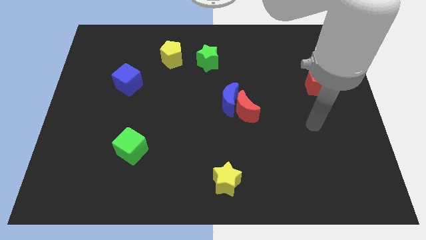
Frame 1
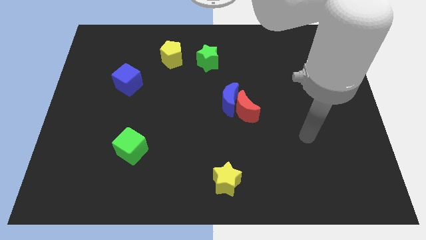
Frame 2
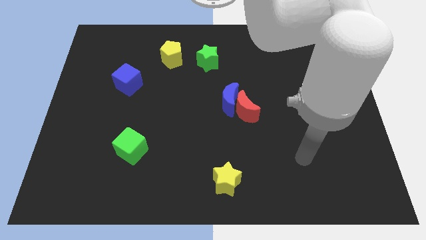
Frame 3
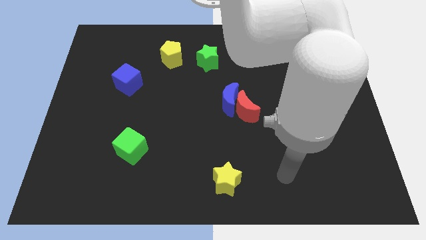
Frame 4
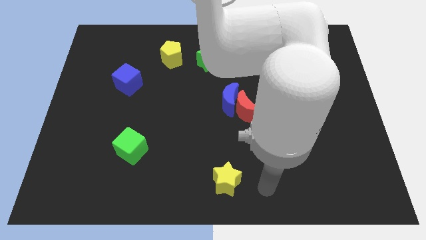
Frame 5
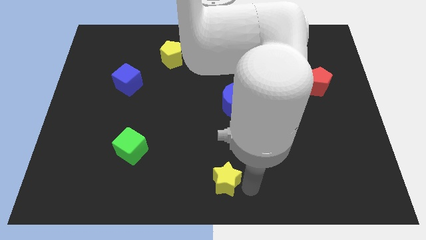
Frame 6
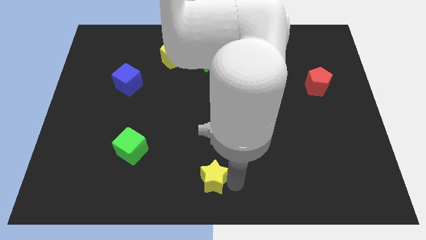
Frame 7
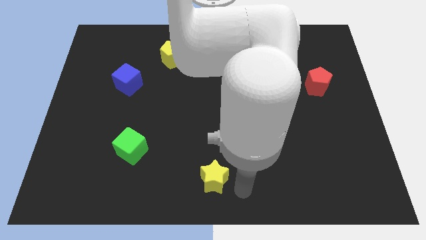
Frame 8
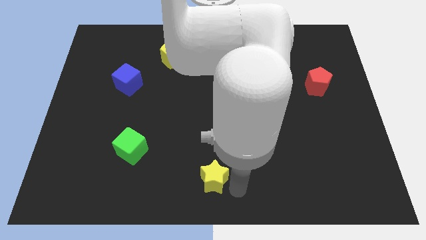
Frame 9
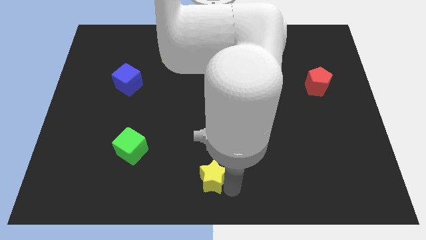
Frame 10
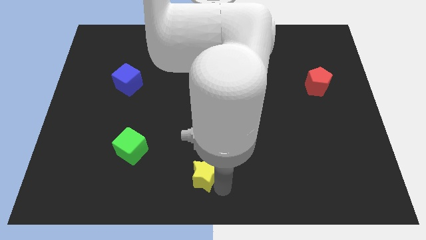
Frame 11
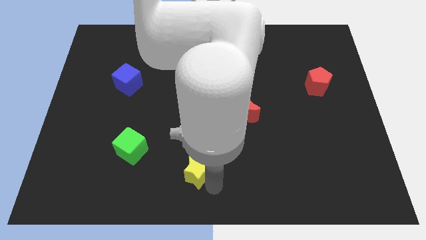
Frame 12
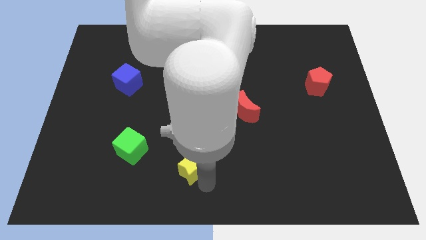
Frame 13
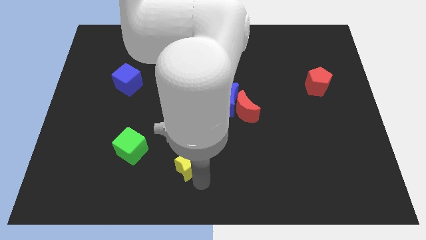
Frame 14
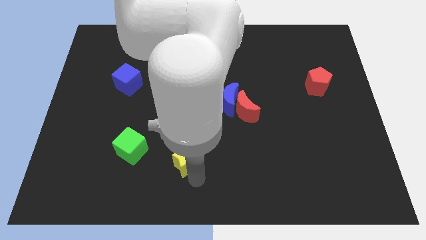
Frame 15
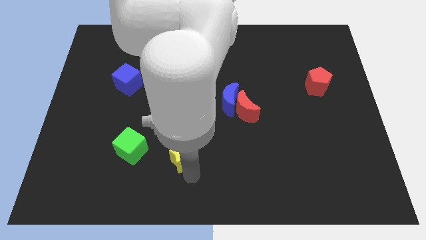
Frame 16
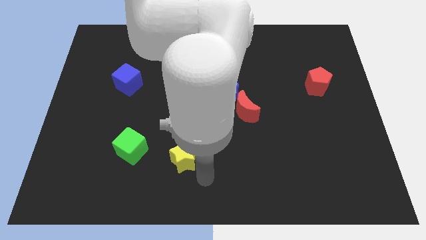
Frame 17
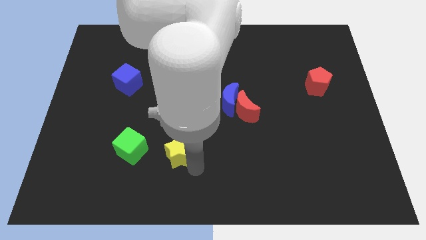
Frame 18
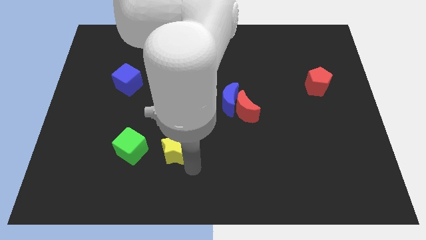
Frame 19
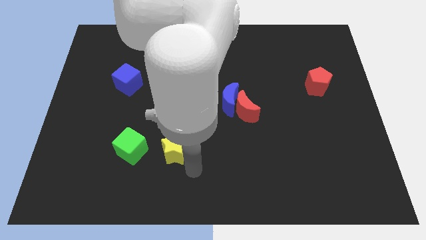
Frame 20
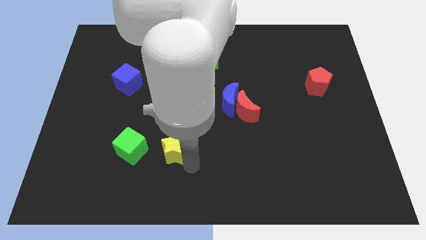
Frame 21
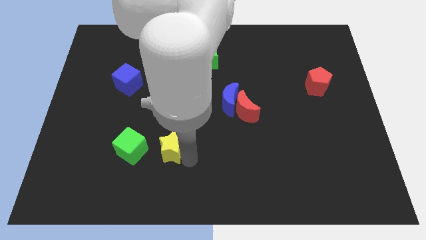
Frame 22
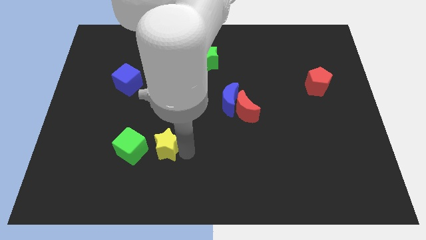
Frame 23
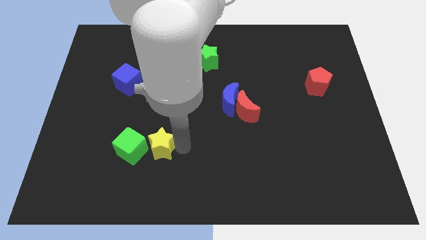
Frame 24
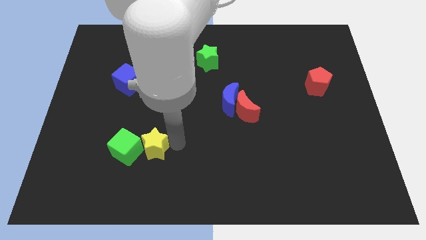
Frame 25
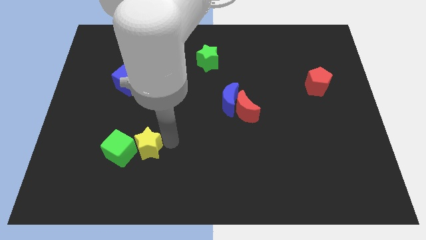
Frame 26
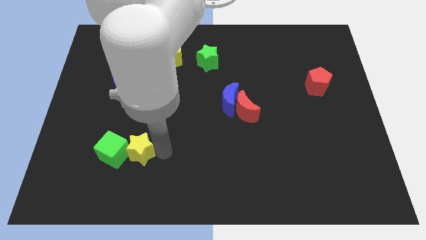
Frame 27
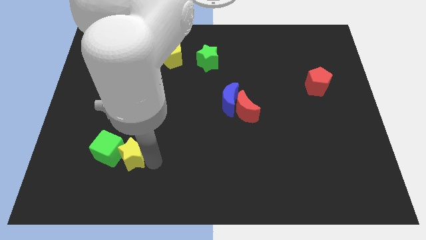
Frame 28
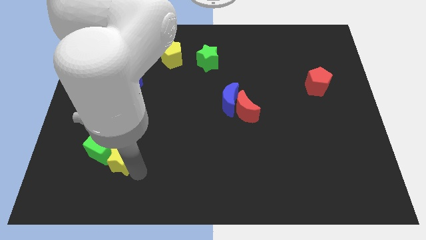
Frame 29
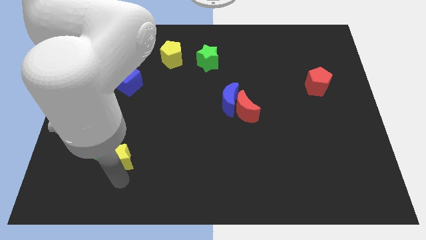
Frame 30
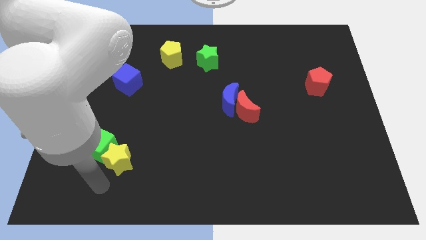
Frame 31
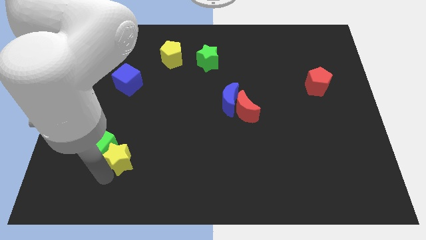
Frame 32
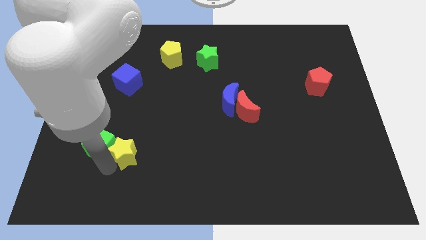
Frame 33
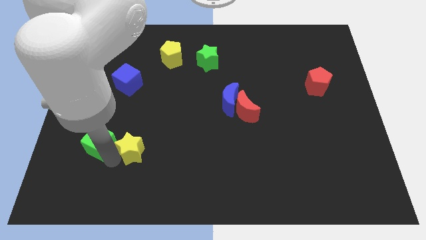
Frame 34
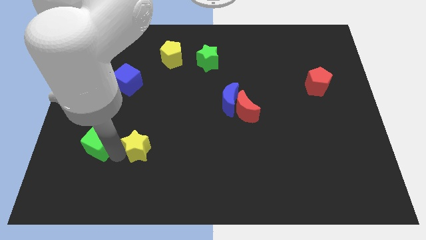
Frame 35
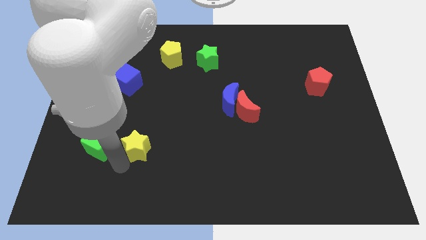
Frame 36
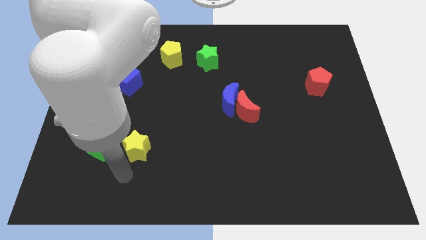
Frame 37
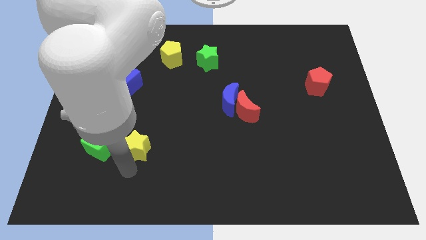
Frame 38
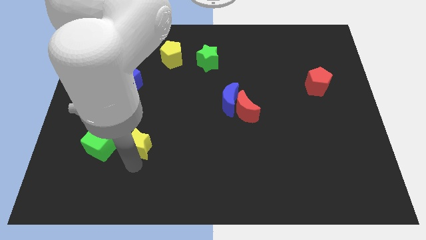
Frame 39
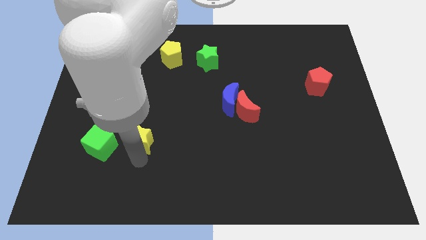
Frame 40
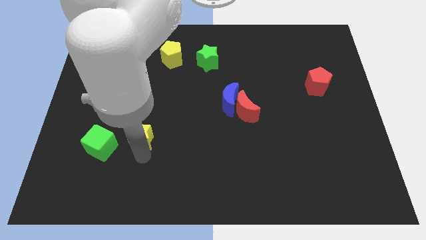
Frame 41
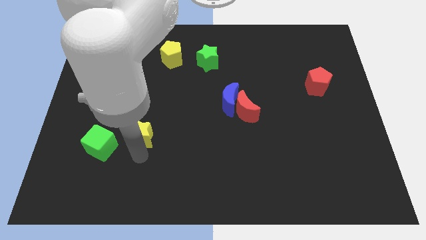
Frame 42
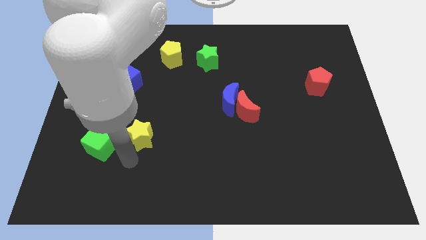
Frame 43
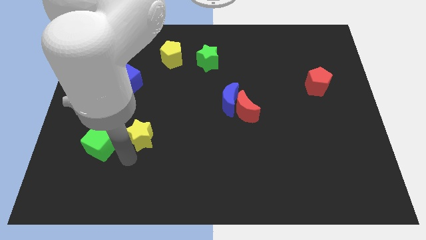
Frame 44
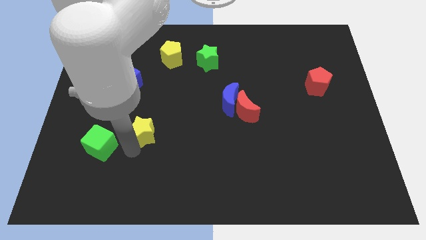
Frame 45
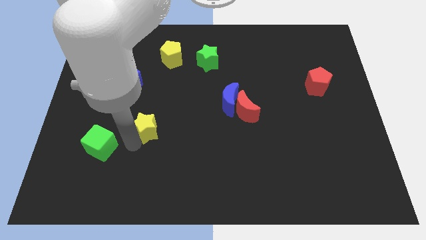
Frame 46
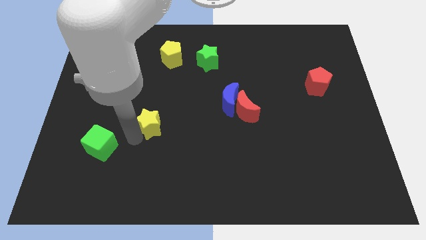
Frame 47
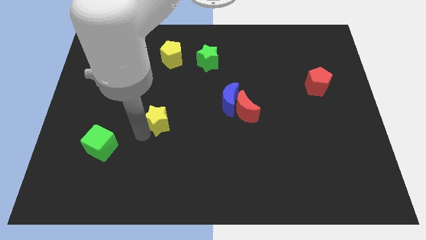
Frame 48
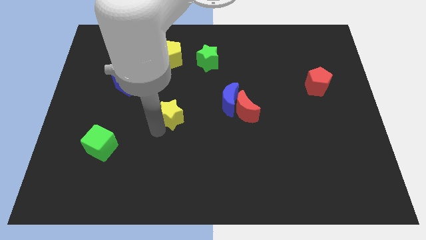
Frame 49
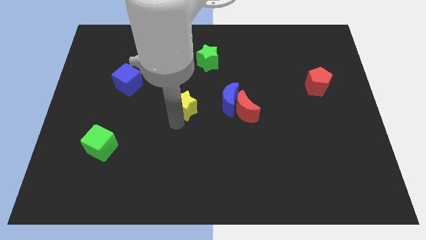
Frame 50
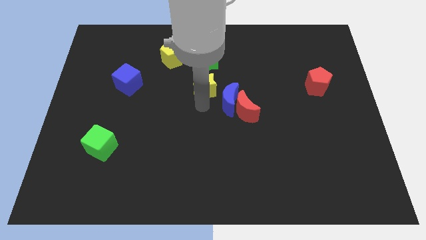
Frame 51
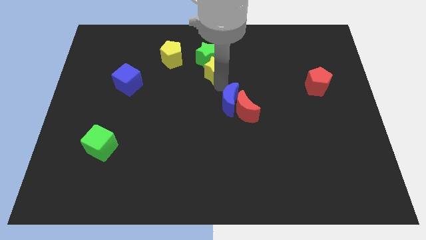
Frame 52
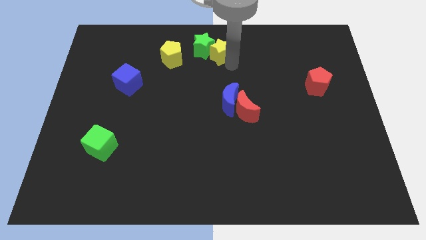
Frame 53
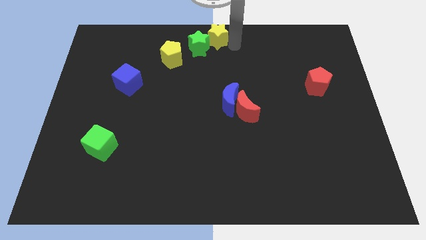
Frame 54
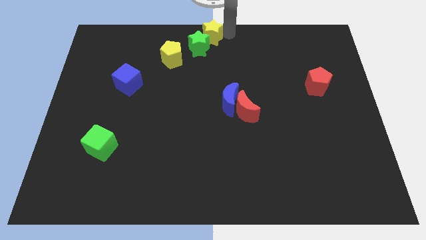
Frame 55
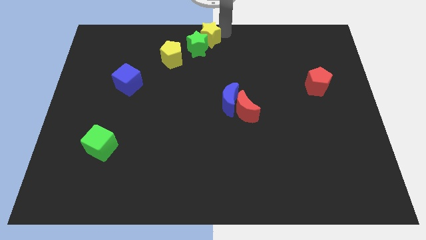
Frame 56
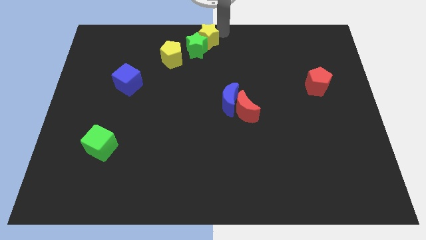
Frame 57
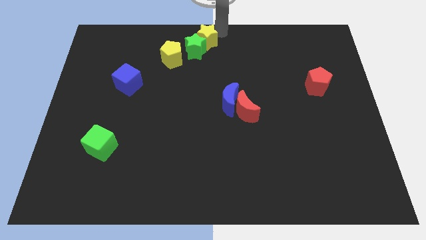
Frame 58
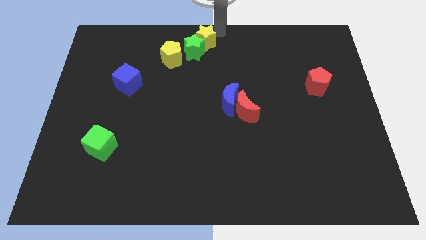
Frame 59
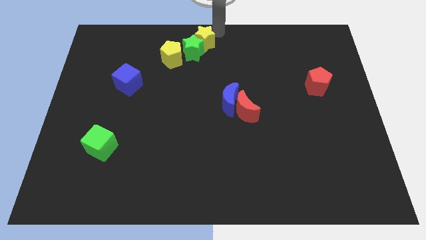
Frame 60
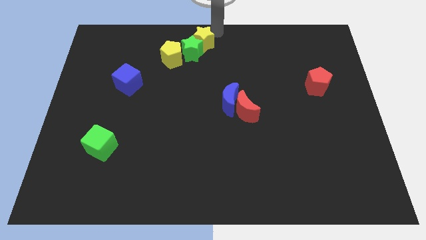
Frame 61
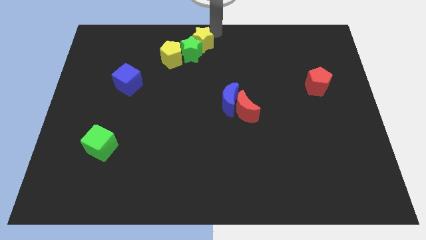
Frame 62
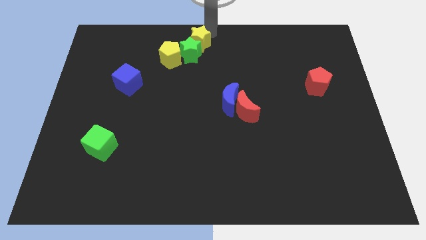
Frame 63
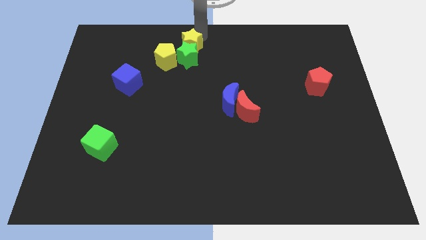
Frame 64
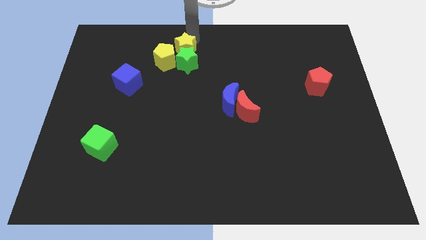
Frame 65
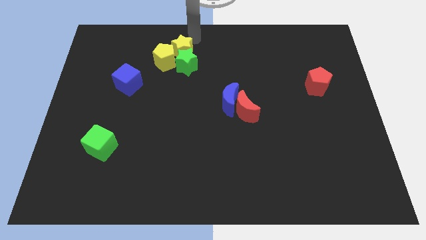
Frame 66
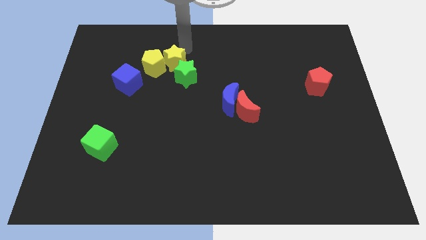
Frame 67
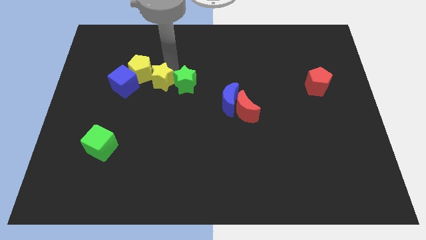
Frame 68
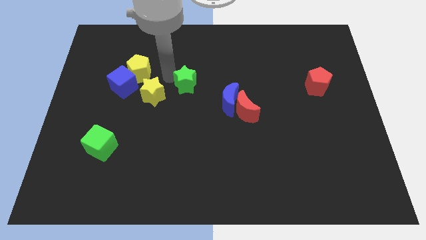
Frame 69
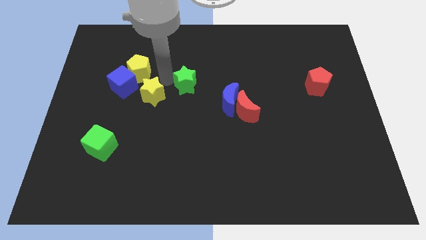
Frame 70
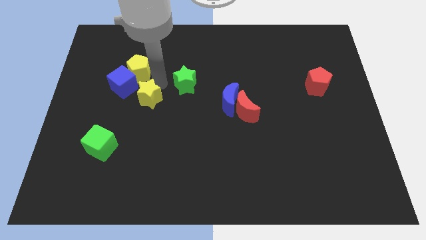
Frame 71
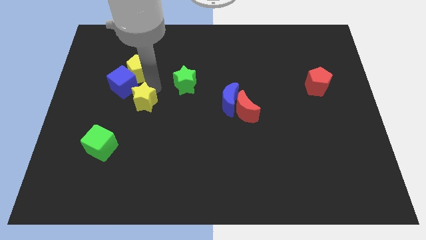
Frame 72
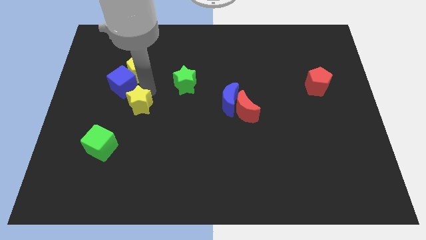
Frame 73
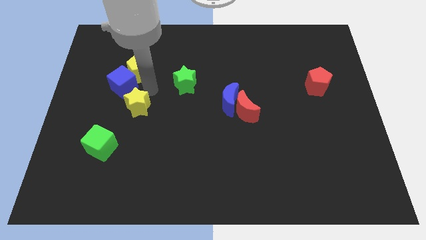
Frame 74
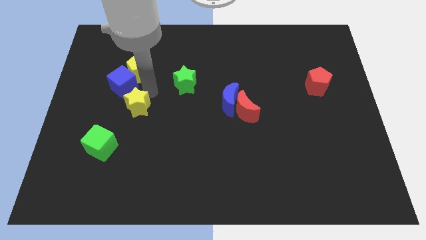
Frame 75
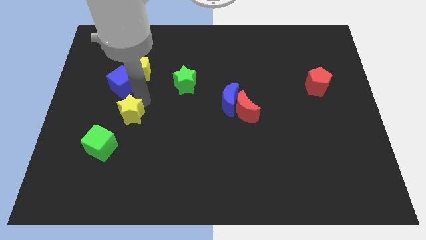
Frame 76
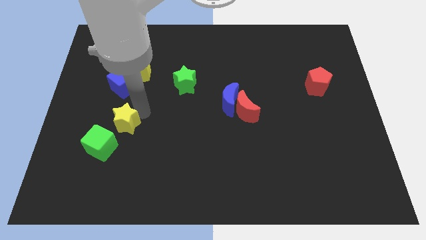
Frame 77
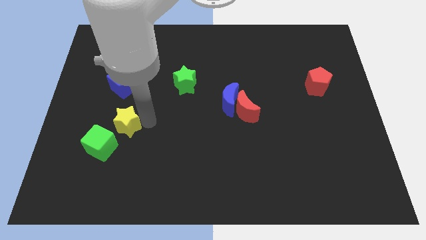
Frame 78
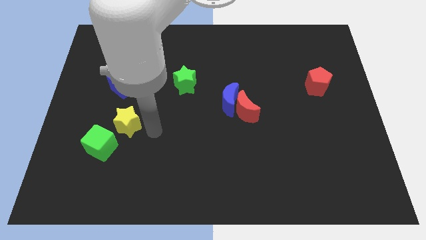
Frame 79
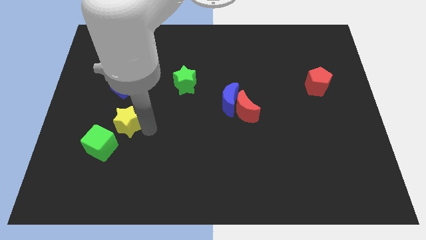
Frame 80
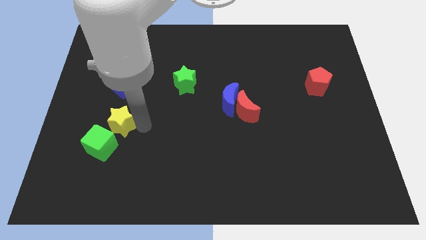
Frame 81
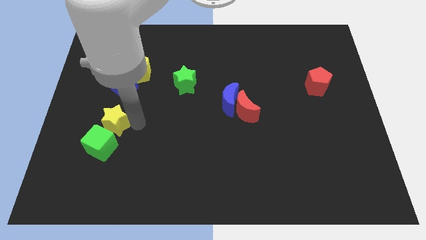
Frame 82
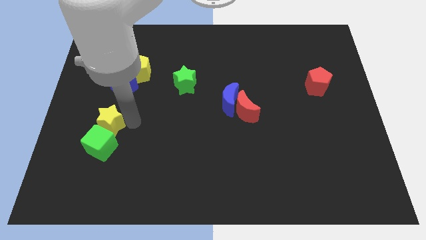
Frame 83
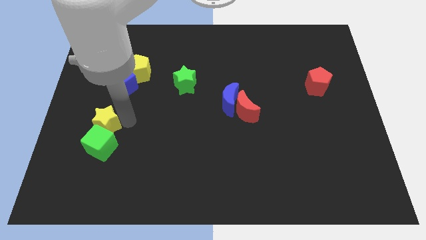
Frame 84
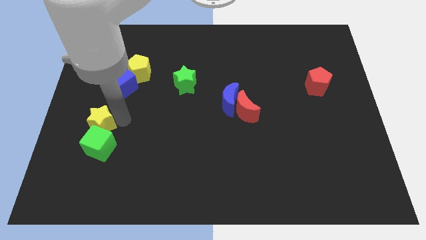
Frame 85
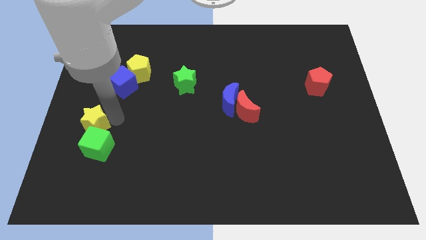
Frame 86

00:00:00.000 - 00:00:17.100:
slide the yellow star to the left side
